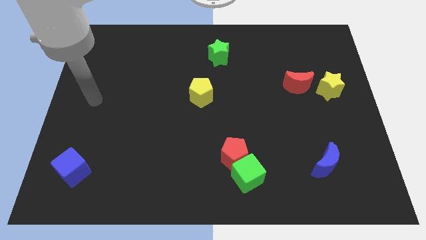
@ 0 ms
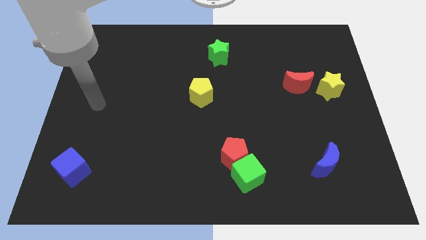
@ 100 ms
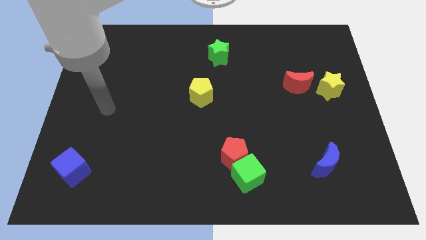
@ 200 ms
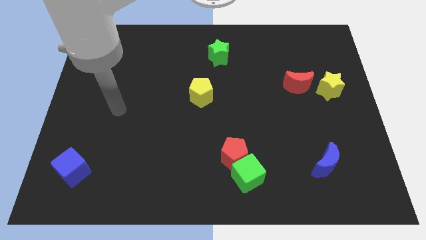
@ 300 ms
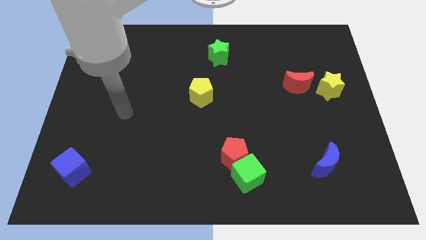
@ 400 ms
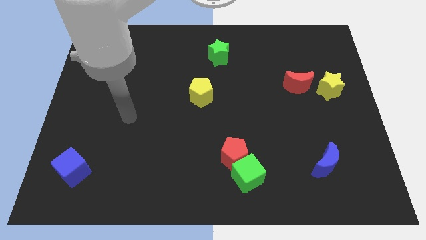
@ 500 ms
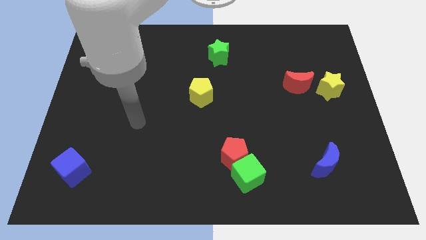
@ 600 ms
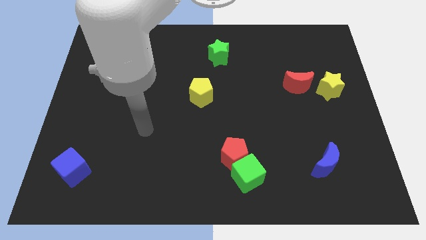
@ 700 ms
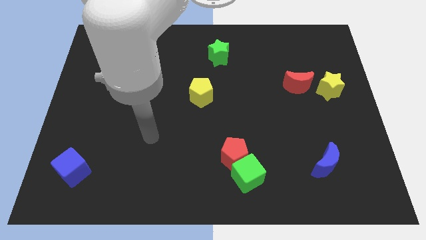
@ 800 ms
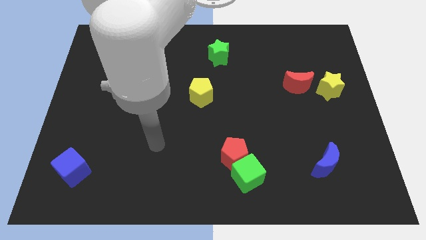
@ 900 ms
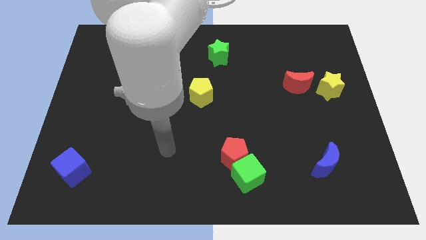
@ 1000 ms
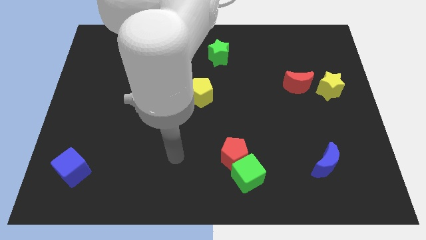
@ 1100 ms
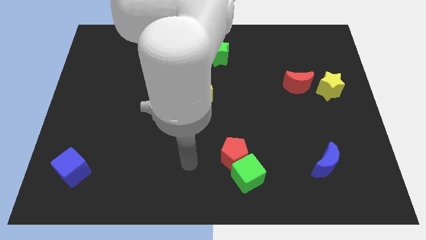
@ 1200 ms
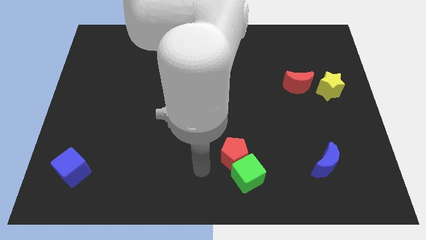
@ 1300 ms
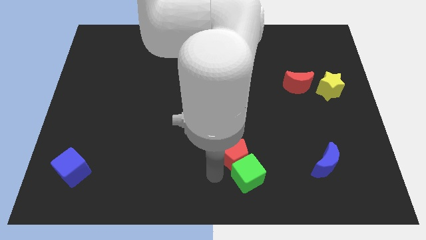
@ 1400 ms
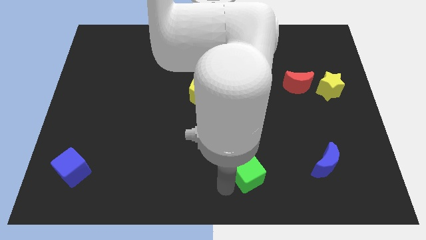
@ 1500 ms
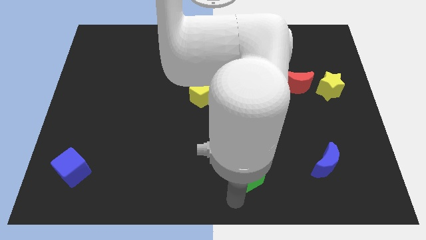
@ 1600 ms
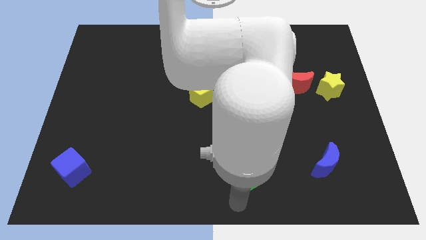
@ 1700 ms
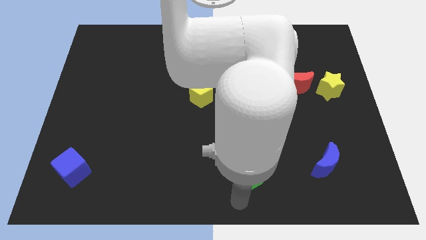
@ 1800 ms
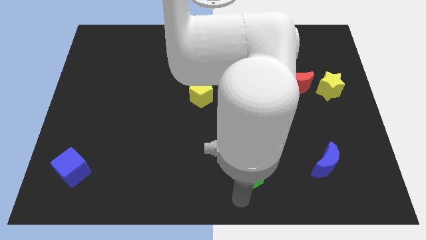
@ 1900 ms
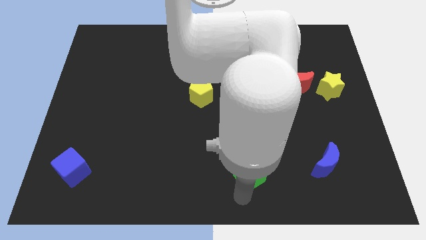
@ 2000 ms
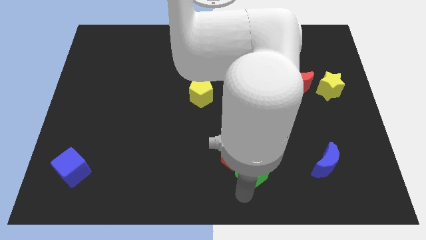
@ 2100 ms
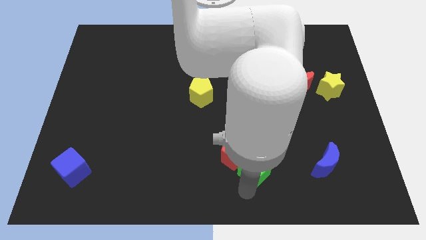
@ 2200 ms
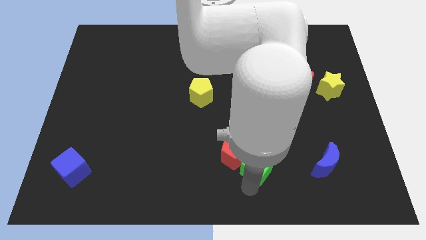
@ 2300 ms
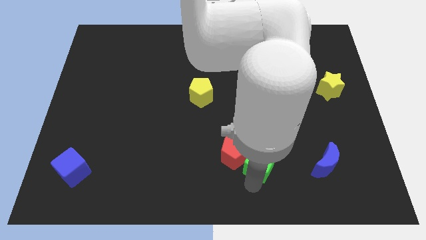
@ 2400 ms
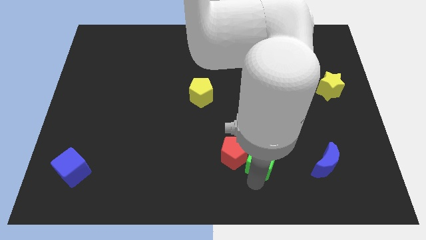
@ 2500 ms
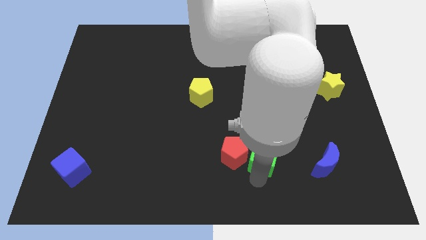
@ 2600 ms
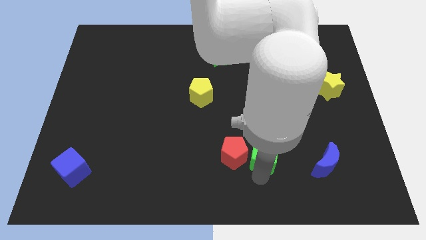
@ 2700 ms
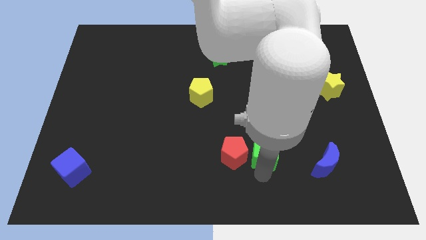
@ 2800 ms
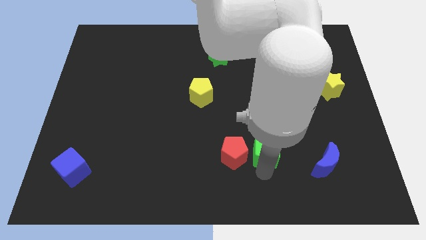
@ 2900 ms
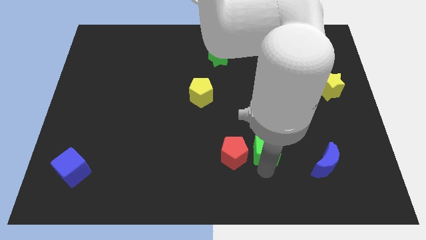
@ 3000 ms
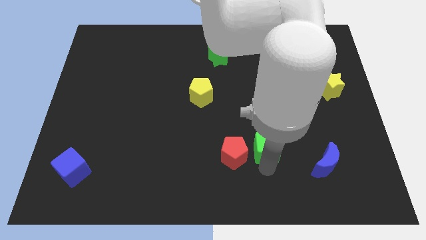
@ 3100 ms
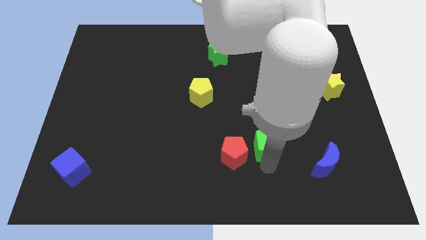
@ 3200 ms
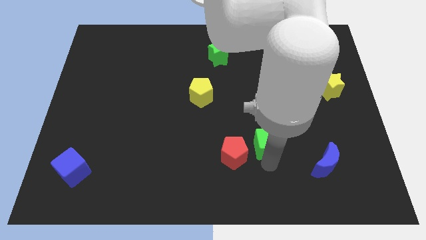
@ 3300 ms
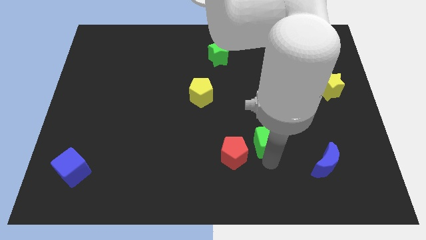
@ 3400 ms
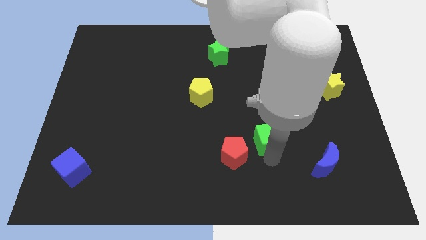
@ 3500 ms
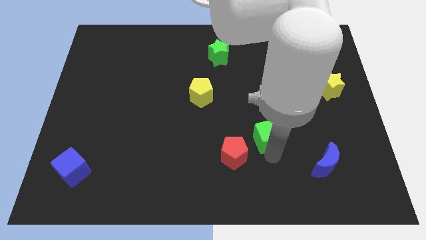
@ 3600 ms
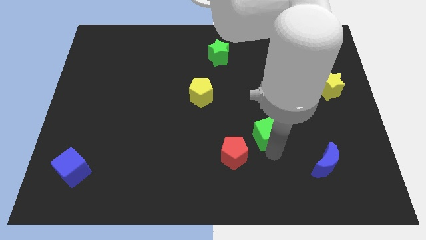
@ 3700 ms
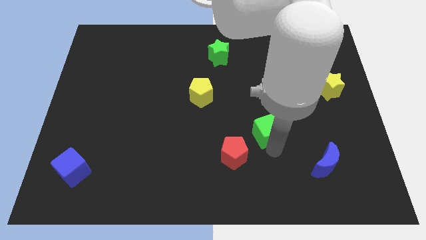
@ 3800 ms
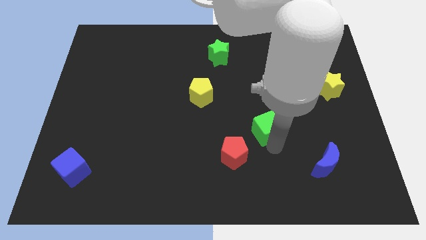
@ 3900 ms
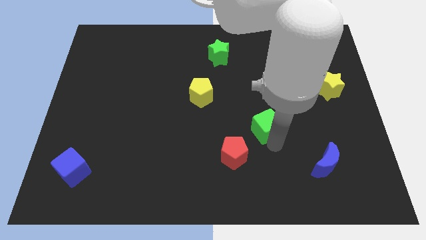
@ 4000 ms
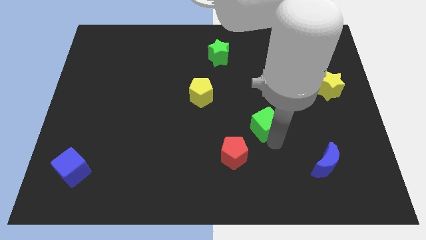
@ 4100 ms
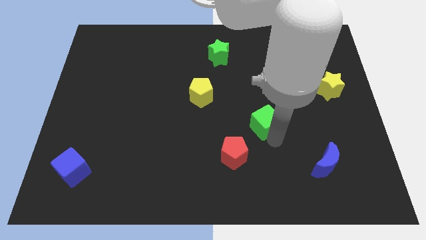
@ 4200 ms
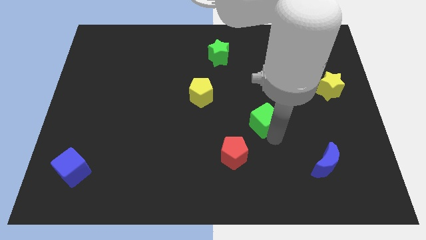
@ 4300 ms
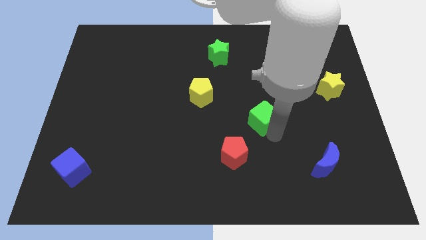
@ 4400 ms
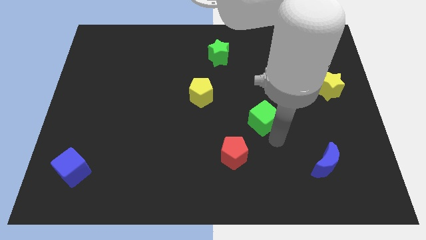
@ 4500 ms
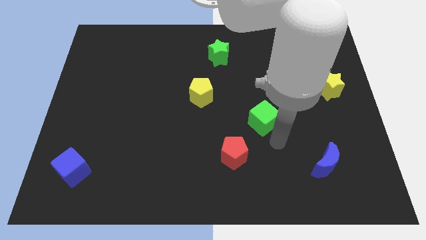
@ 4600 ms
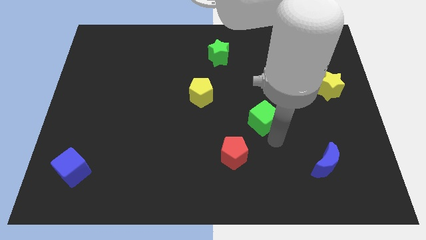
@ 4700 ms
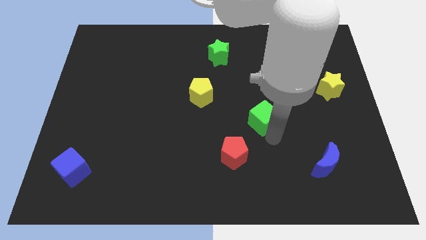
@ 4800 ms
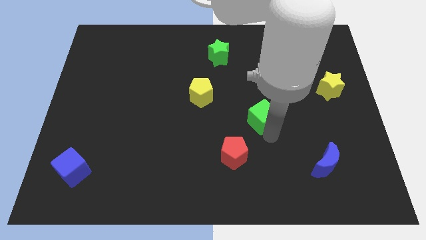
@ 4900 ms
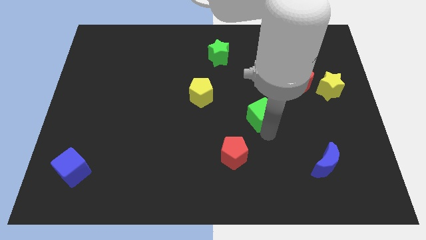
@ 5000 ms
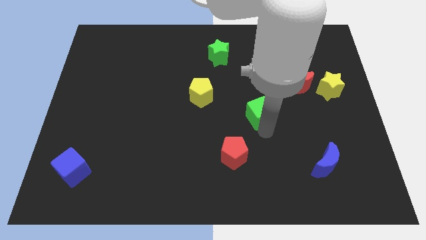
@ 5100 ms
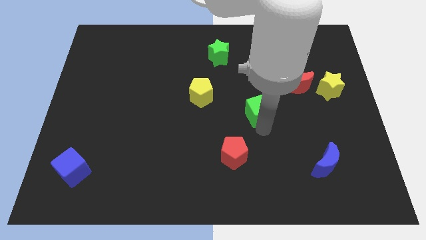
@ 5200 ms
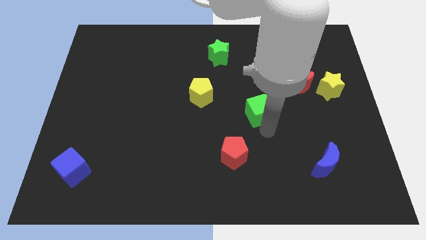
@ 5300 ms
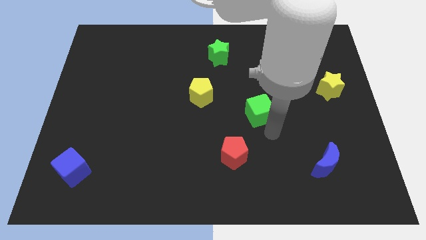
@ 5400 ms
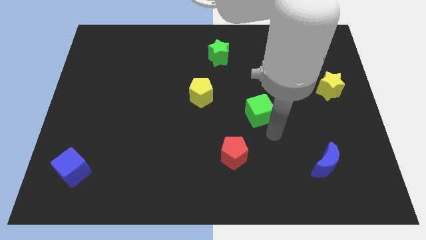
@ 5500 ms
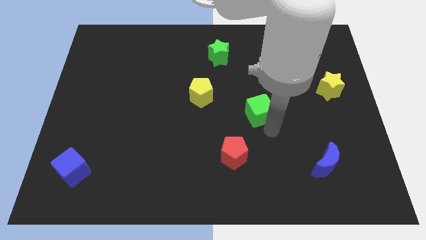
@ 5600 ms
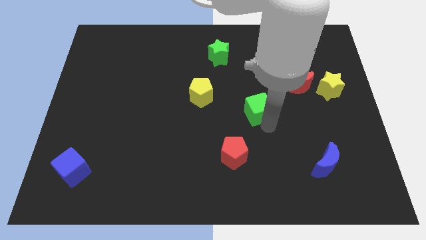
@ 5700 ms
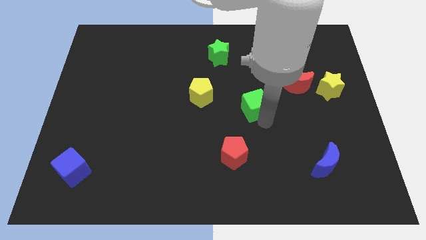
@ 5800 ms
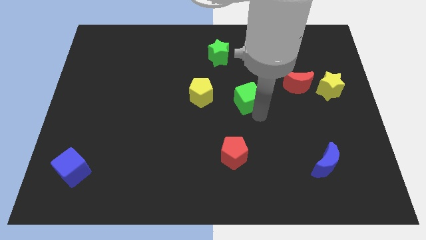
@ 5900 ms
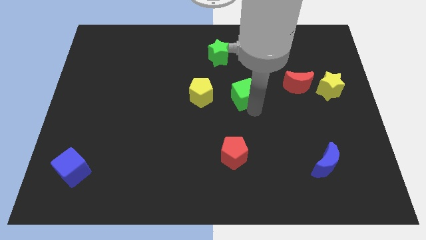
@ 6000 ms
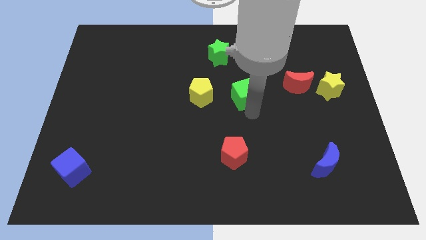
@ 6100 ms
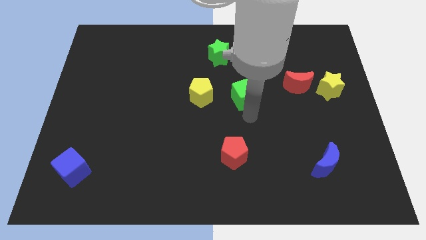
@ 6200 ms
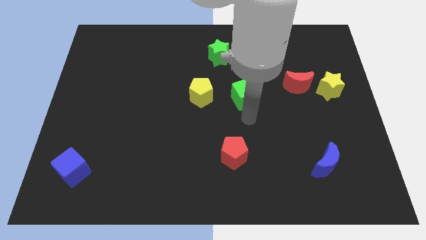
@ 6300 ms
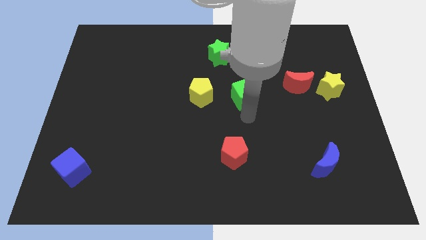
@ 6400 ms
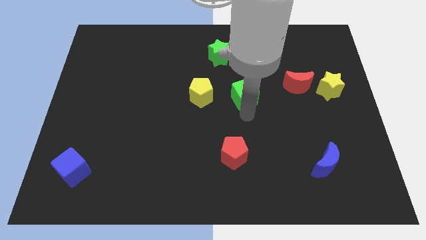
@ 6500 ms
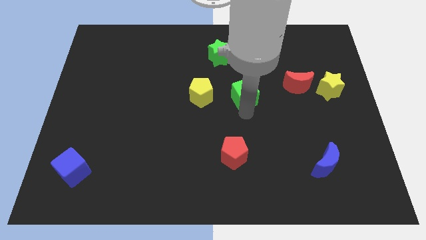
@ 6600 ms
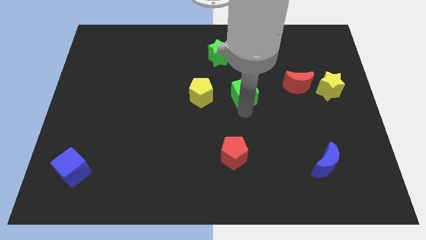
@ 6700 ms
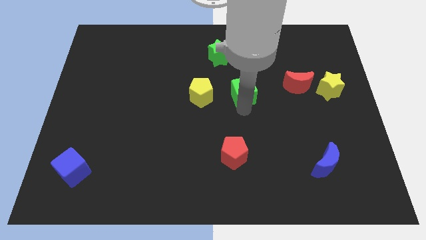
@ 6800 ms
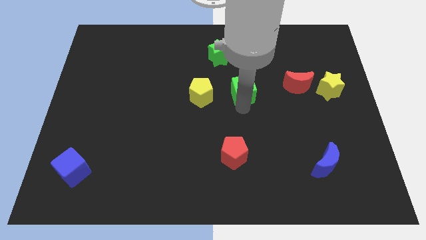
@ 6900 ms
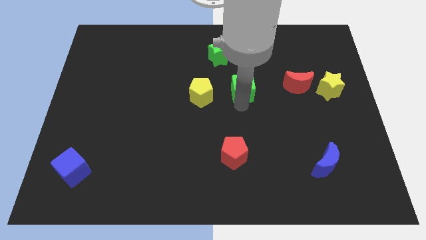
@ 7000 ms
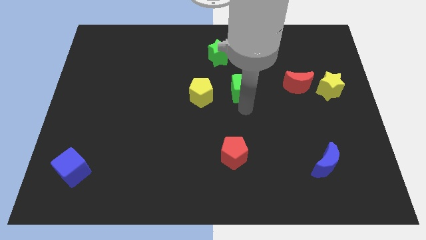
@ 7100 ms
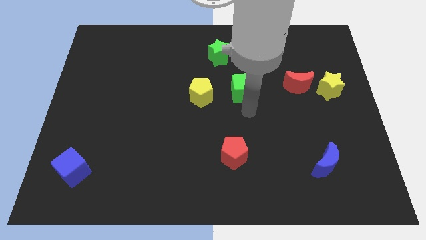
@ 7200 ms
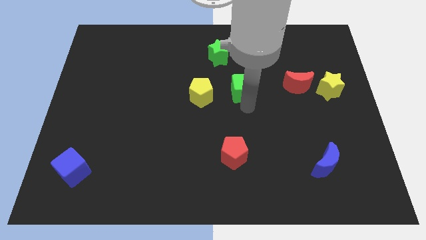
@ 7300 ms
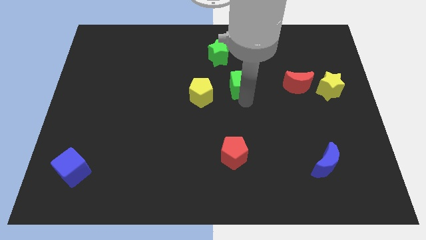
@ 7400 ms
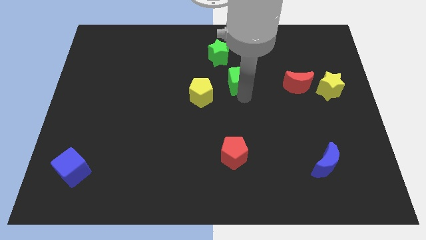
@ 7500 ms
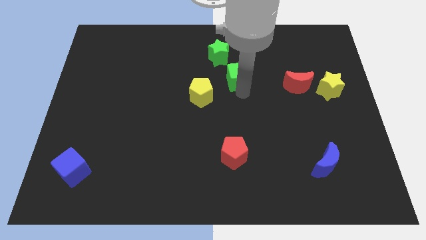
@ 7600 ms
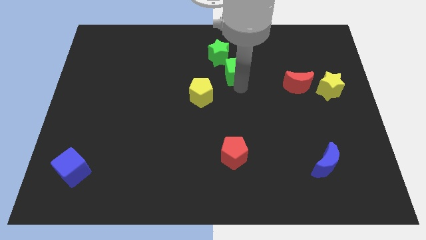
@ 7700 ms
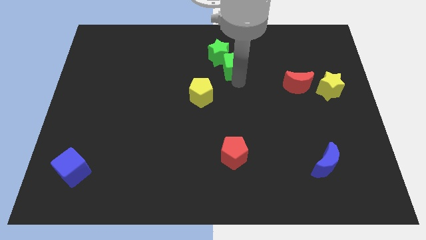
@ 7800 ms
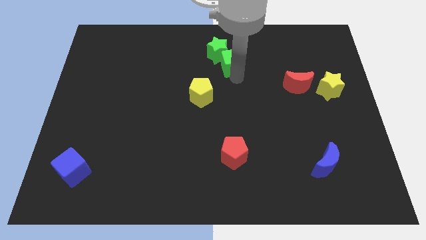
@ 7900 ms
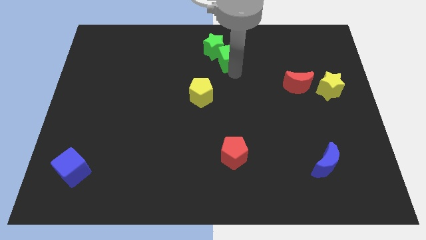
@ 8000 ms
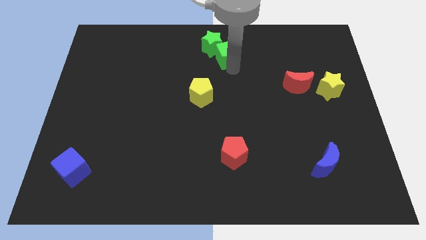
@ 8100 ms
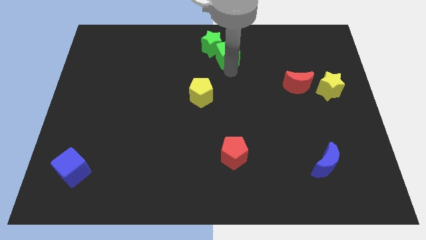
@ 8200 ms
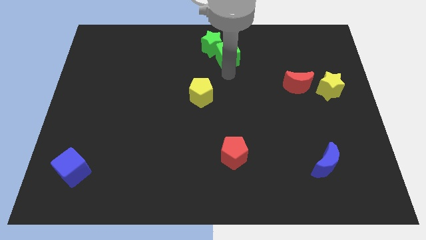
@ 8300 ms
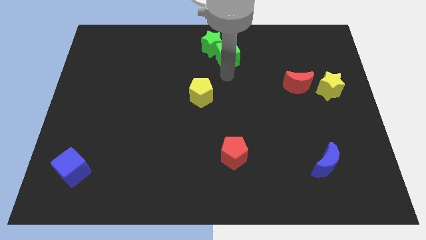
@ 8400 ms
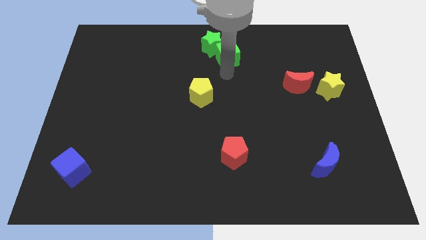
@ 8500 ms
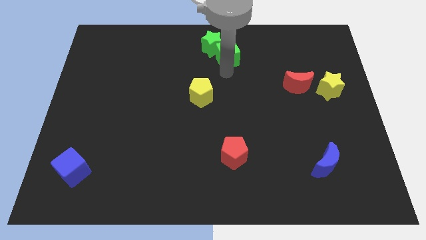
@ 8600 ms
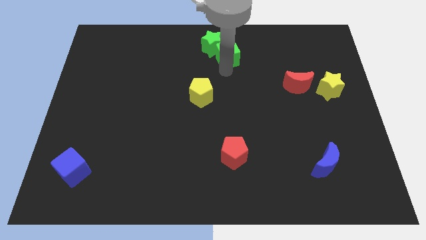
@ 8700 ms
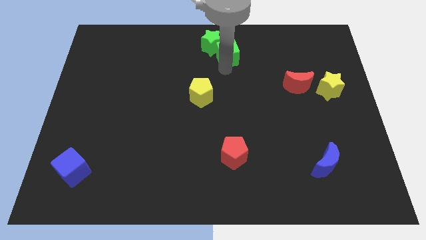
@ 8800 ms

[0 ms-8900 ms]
move the green cube to the top
